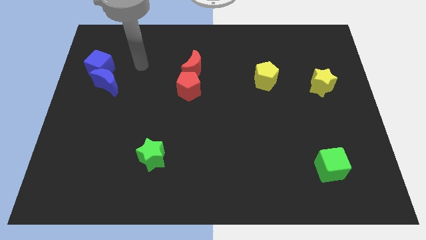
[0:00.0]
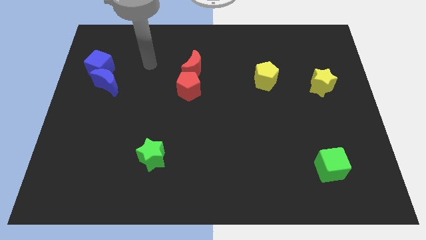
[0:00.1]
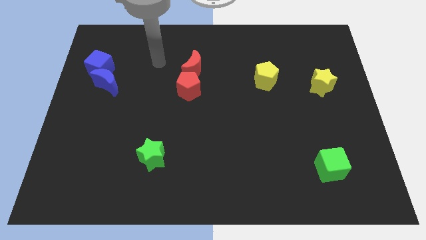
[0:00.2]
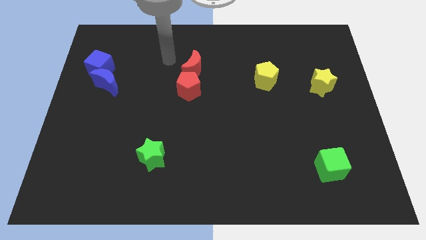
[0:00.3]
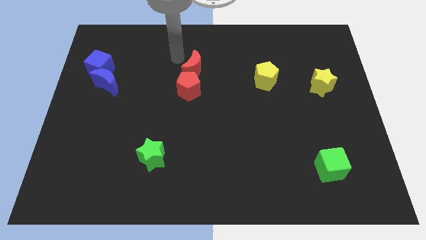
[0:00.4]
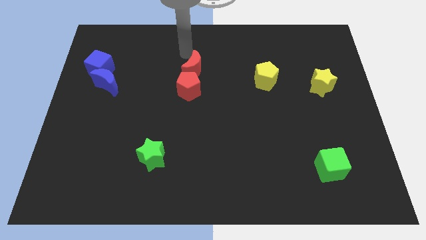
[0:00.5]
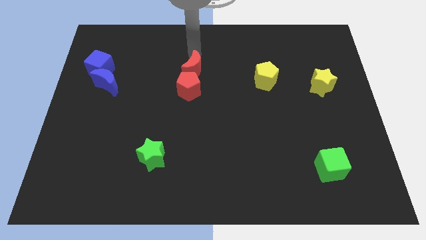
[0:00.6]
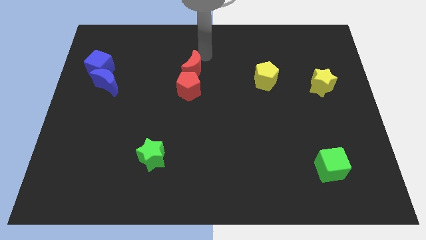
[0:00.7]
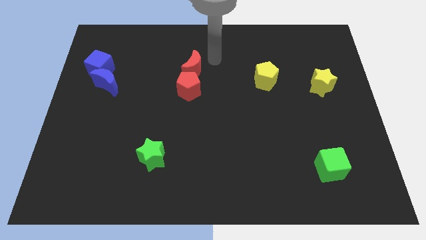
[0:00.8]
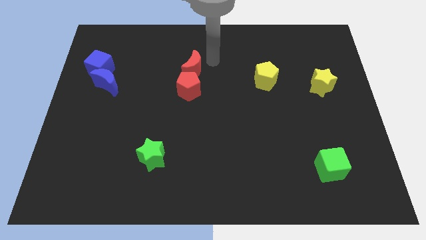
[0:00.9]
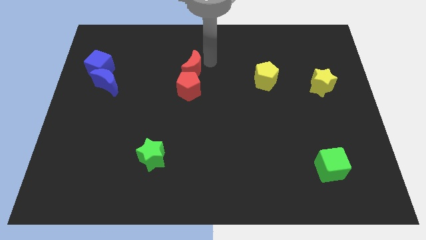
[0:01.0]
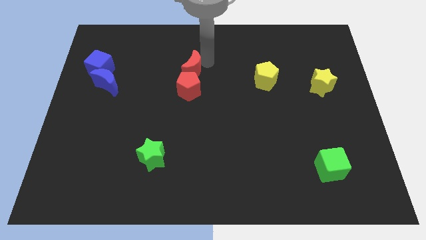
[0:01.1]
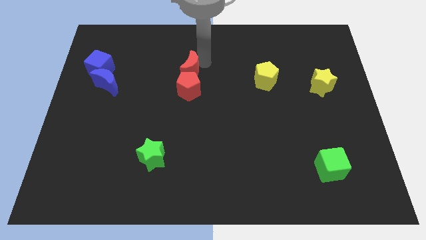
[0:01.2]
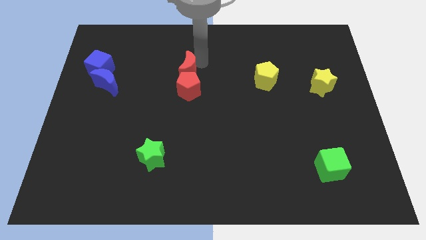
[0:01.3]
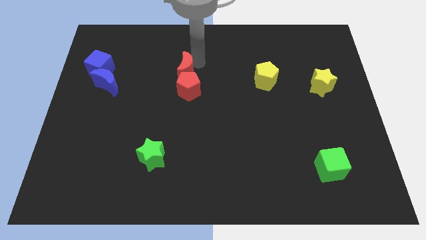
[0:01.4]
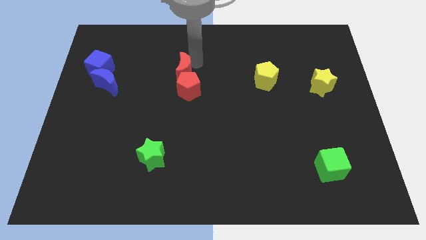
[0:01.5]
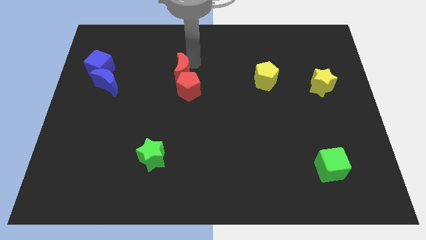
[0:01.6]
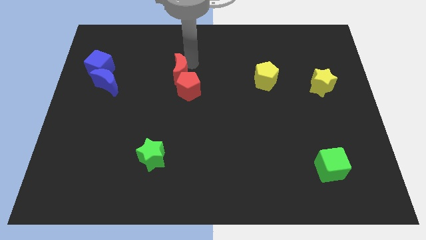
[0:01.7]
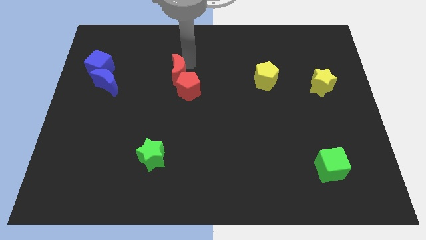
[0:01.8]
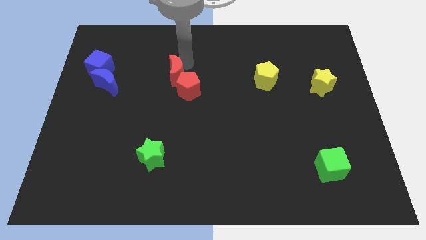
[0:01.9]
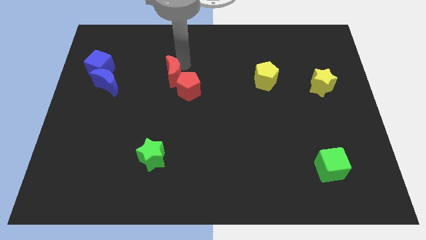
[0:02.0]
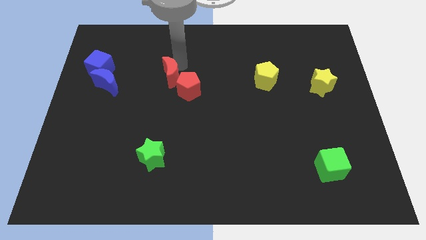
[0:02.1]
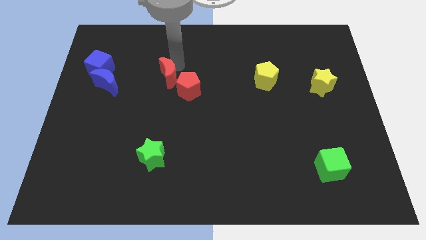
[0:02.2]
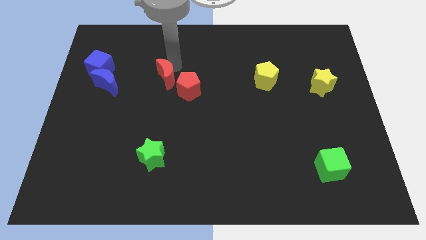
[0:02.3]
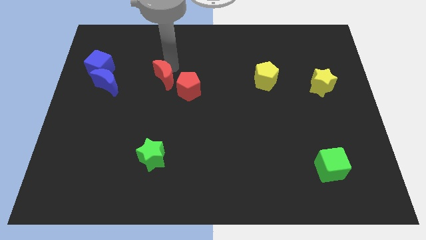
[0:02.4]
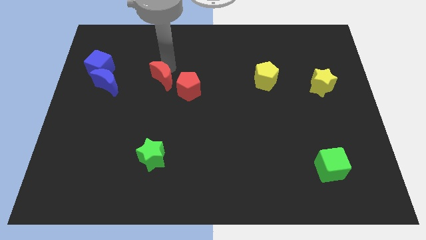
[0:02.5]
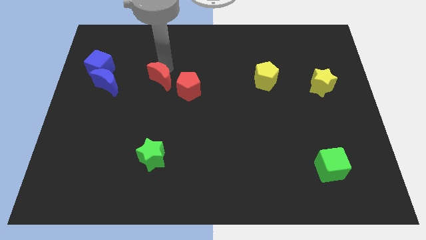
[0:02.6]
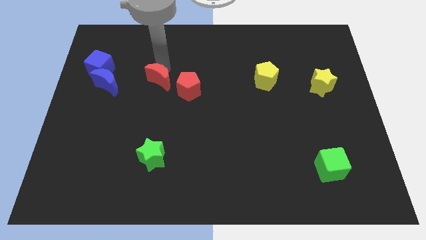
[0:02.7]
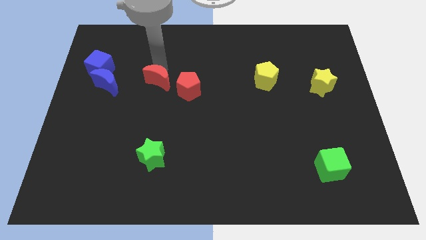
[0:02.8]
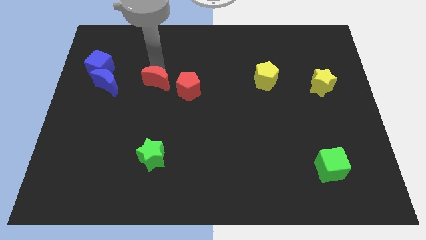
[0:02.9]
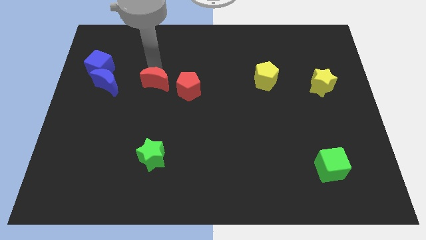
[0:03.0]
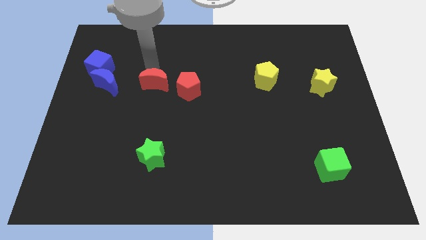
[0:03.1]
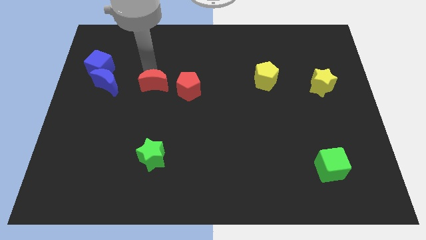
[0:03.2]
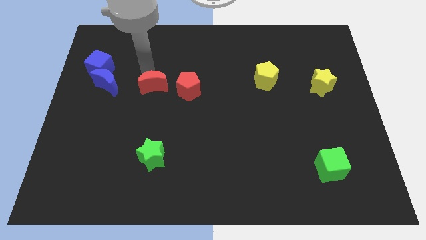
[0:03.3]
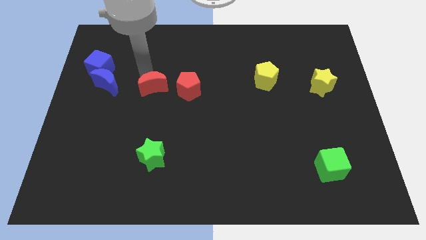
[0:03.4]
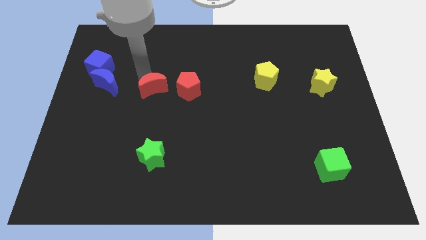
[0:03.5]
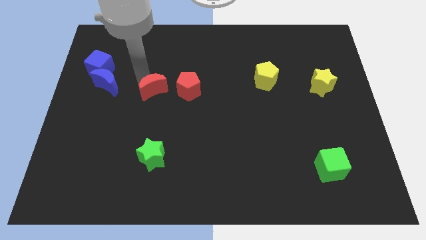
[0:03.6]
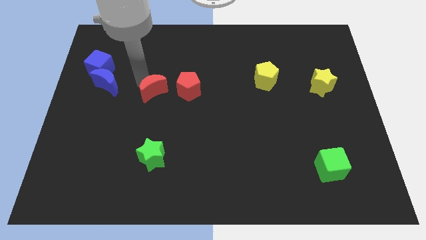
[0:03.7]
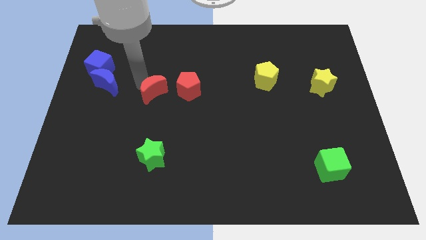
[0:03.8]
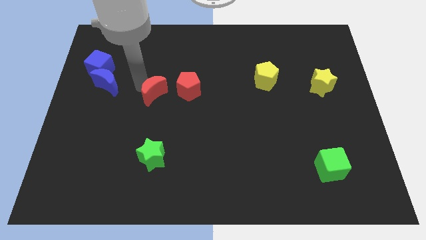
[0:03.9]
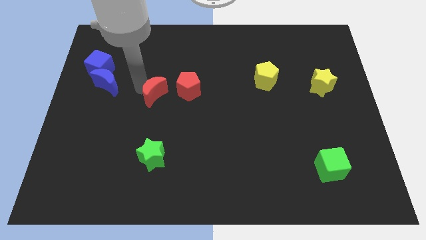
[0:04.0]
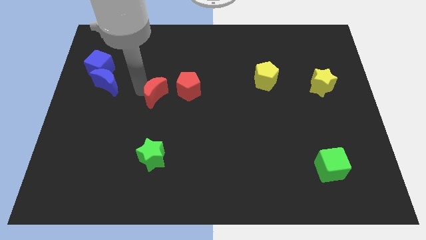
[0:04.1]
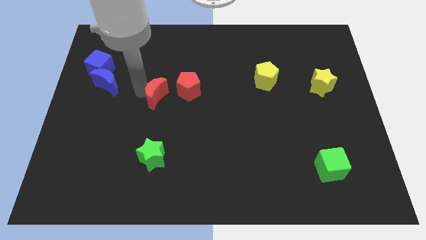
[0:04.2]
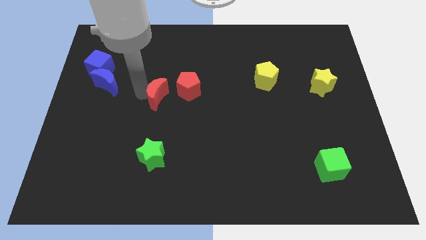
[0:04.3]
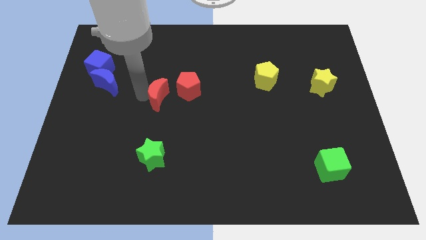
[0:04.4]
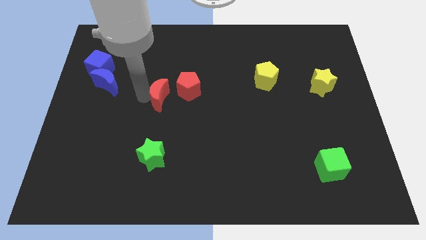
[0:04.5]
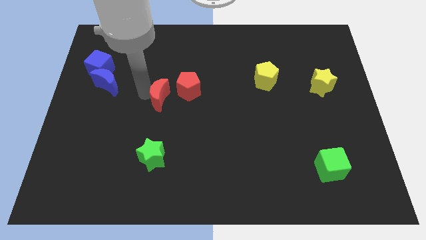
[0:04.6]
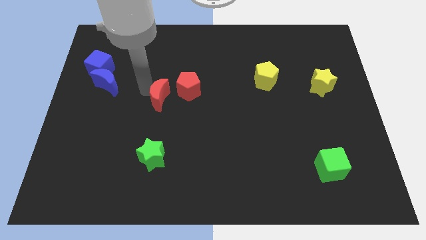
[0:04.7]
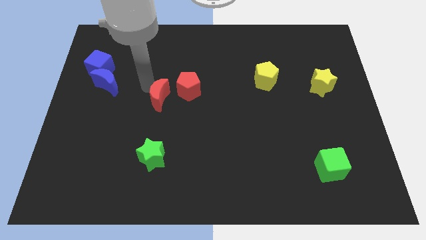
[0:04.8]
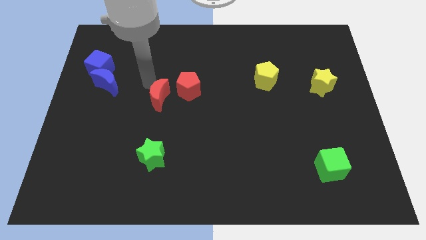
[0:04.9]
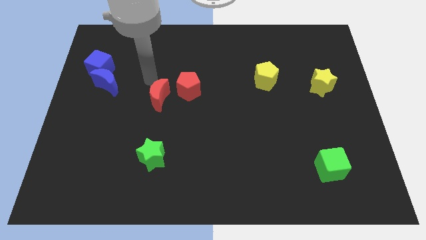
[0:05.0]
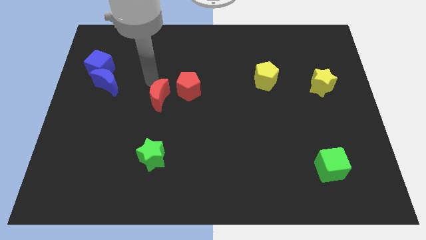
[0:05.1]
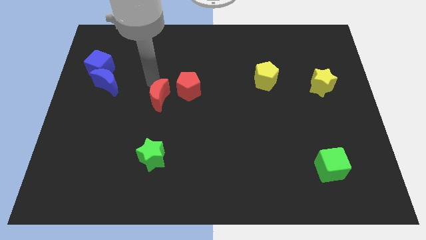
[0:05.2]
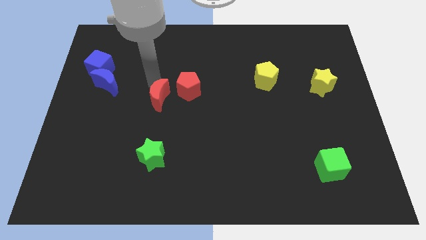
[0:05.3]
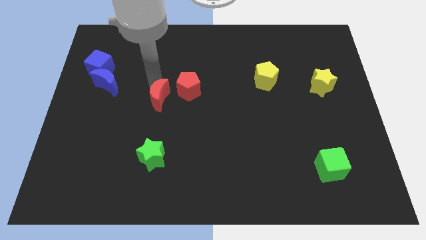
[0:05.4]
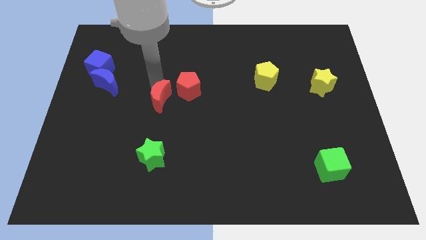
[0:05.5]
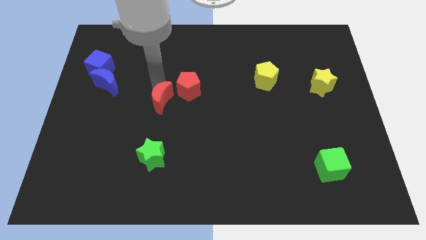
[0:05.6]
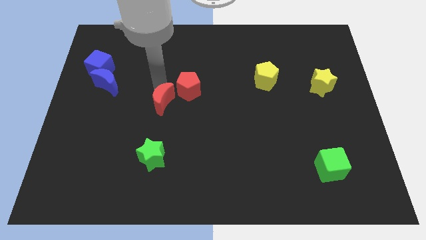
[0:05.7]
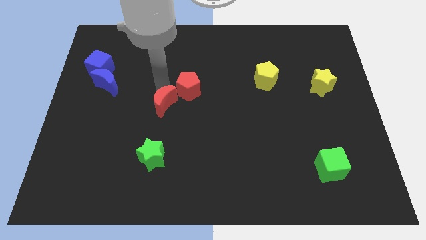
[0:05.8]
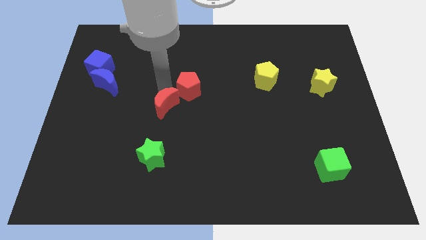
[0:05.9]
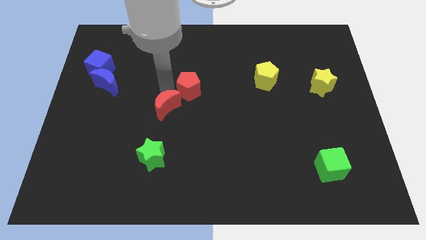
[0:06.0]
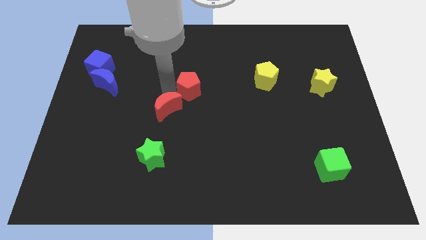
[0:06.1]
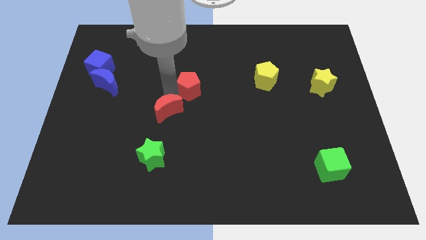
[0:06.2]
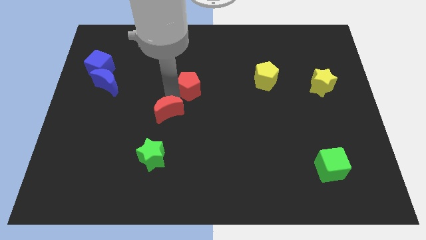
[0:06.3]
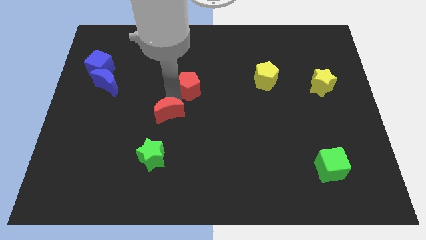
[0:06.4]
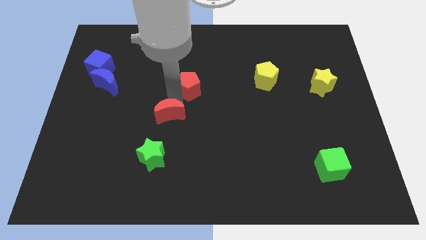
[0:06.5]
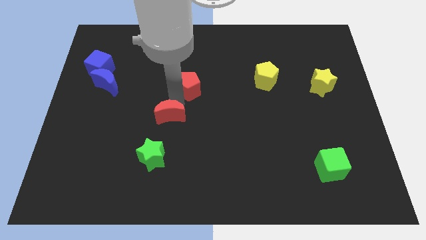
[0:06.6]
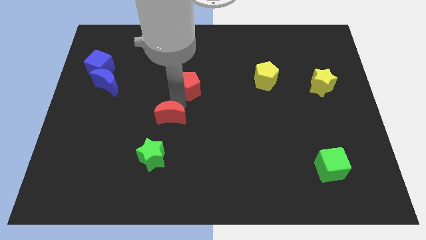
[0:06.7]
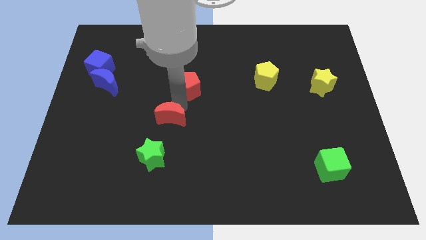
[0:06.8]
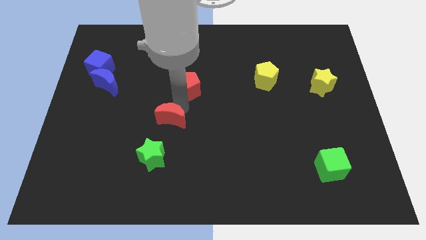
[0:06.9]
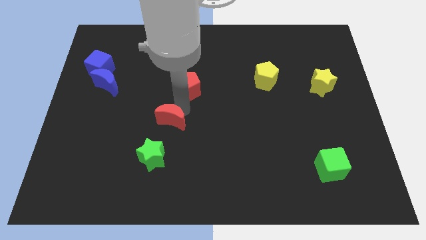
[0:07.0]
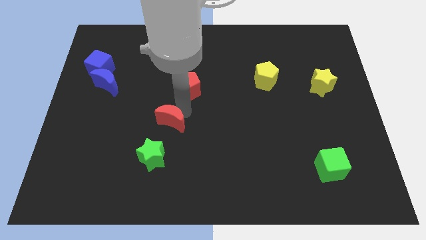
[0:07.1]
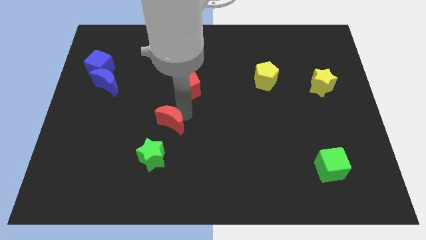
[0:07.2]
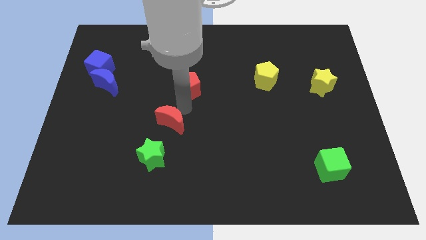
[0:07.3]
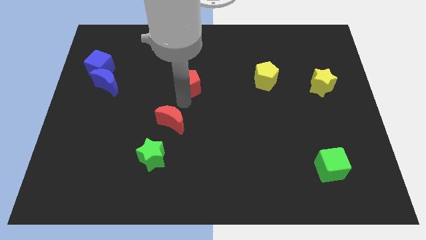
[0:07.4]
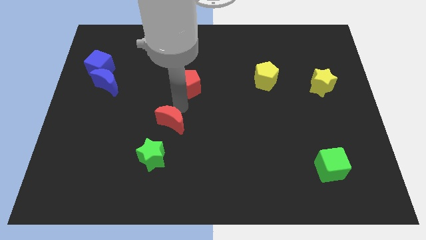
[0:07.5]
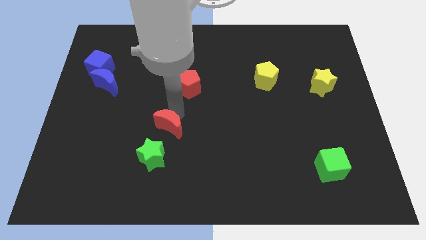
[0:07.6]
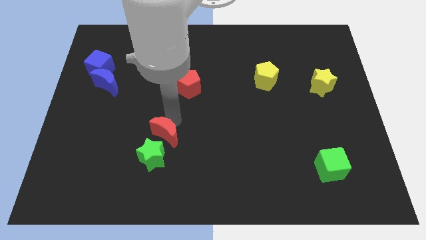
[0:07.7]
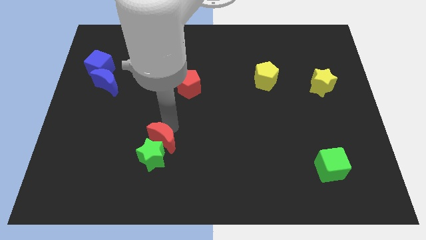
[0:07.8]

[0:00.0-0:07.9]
put the red moon to the green star
